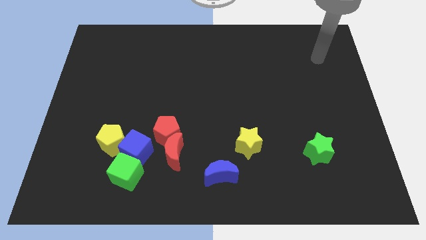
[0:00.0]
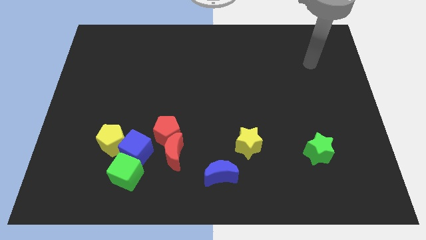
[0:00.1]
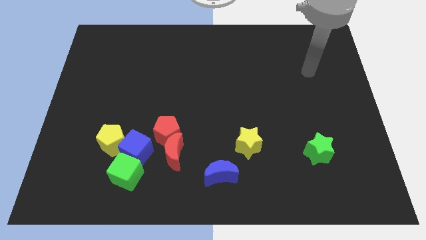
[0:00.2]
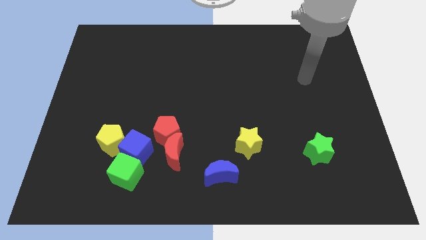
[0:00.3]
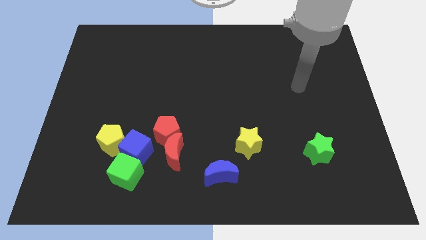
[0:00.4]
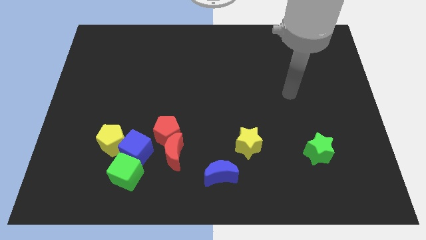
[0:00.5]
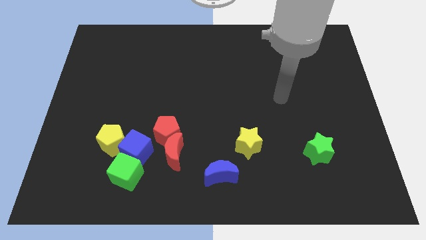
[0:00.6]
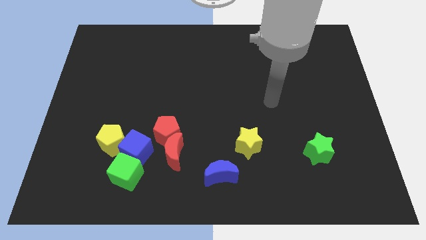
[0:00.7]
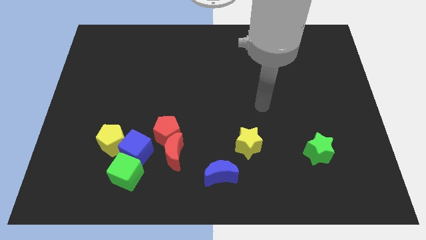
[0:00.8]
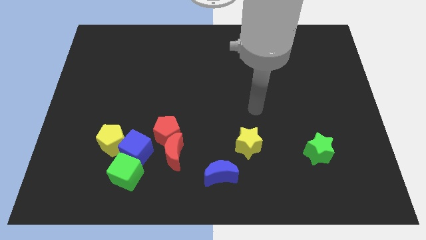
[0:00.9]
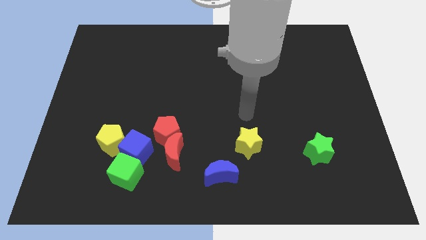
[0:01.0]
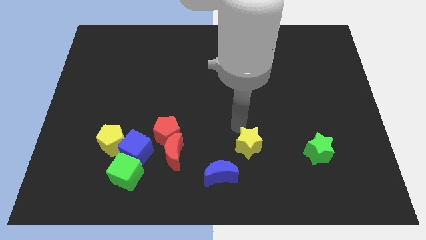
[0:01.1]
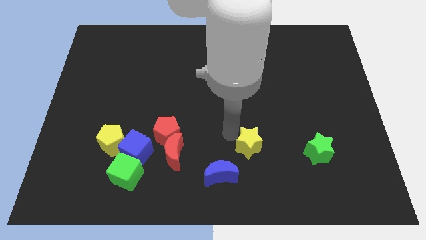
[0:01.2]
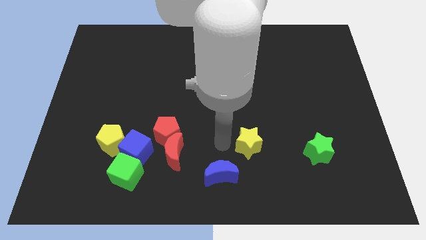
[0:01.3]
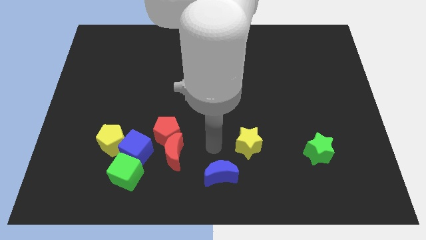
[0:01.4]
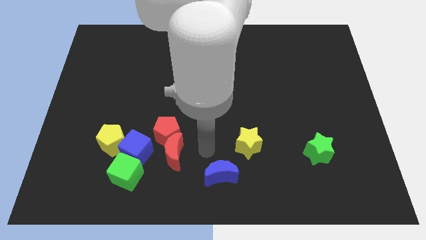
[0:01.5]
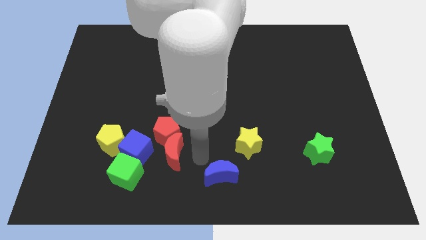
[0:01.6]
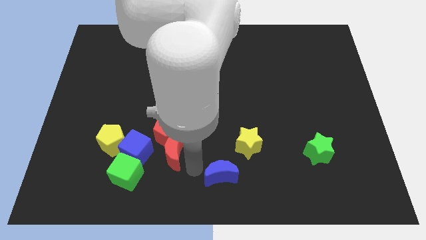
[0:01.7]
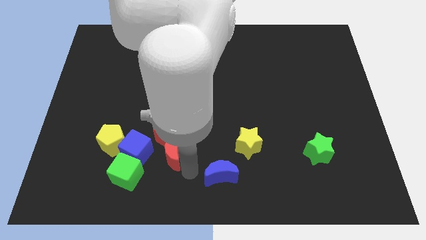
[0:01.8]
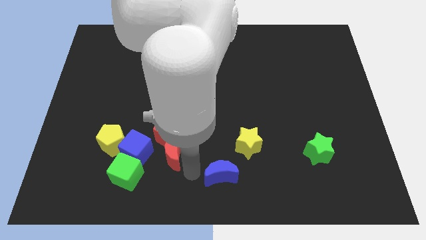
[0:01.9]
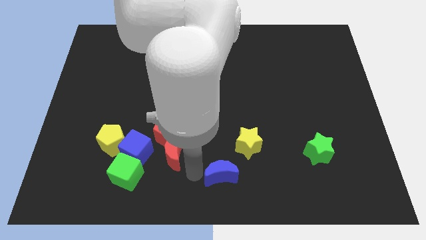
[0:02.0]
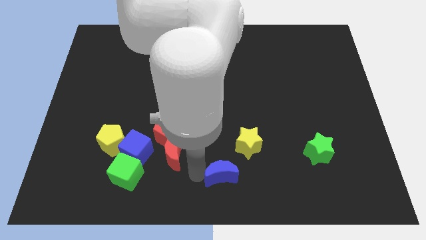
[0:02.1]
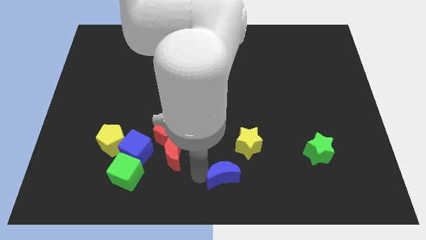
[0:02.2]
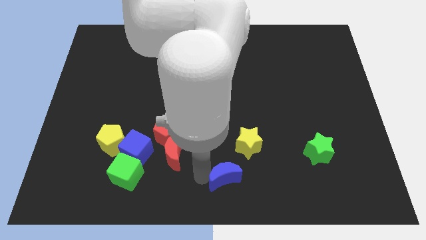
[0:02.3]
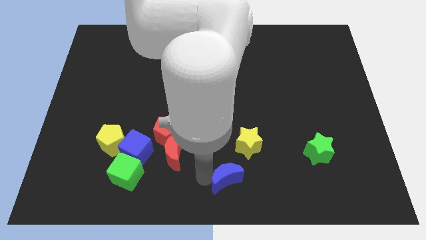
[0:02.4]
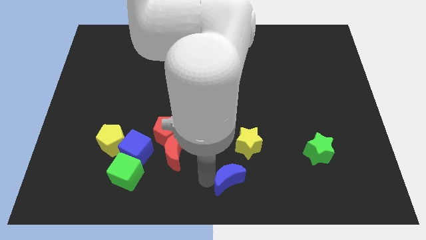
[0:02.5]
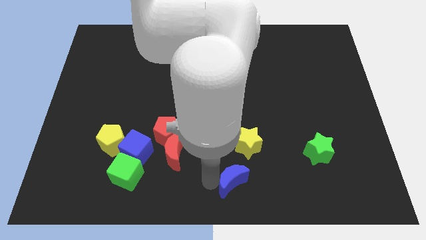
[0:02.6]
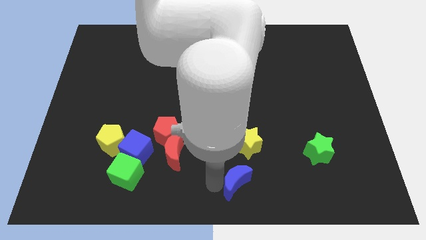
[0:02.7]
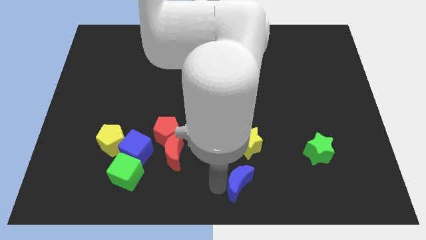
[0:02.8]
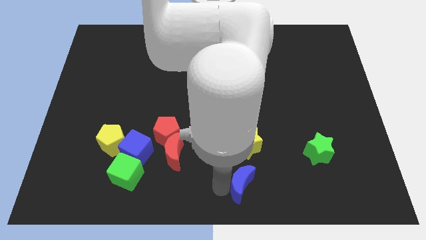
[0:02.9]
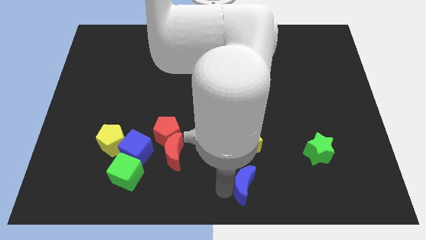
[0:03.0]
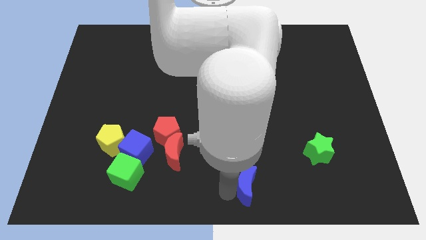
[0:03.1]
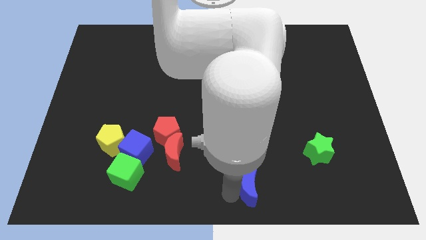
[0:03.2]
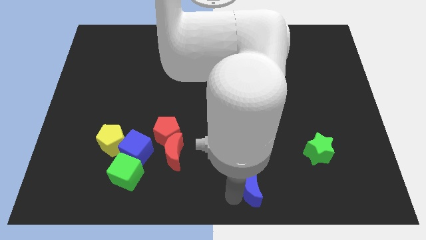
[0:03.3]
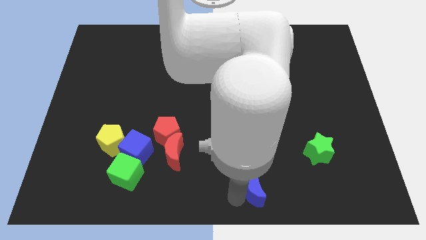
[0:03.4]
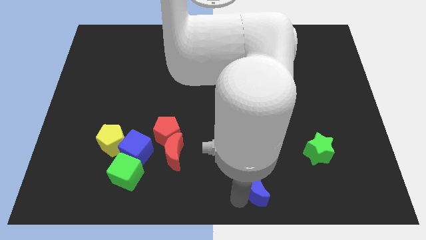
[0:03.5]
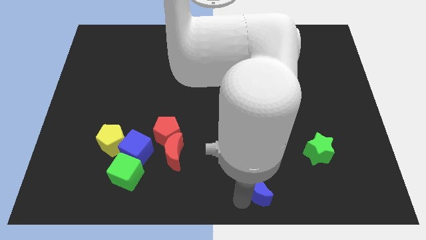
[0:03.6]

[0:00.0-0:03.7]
slide the blue moon somewhat right

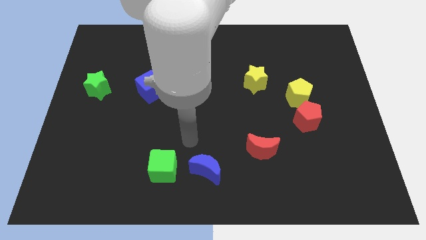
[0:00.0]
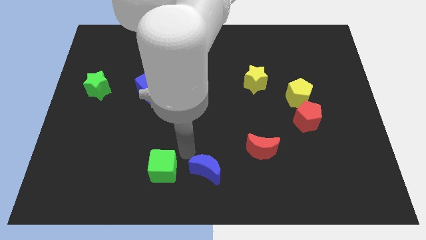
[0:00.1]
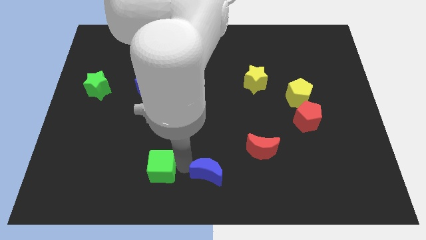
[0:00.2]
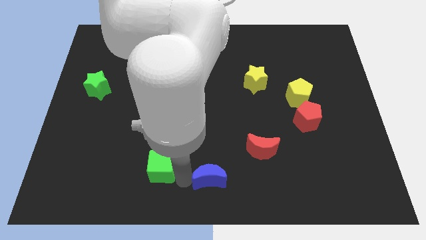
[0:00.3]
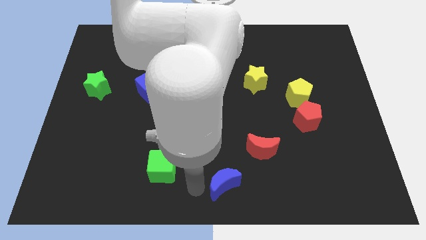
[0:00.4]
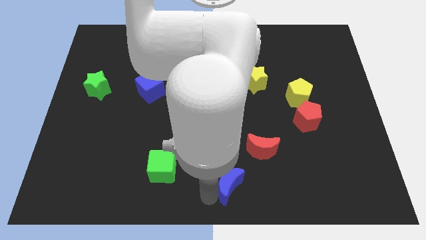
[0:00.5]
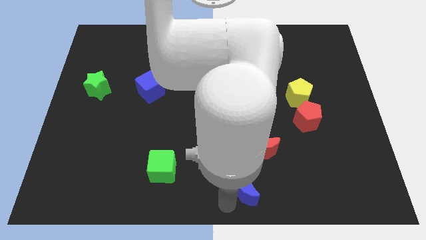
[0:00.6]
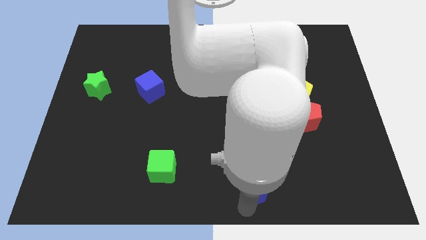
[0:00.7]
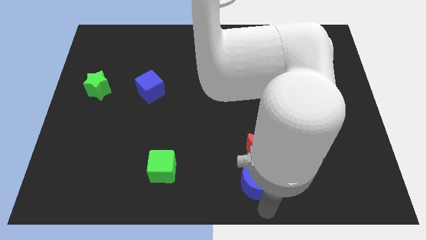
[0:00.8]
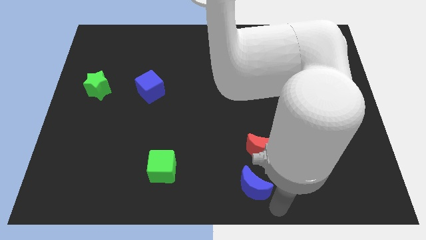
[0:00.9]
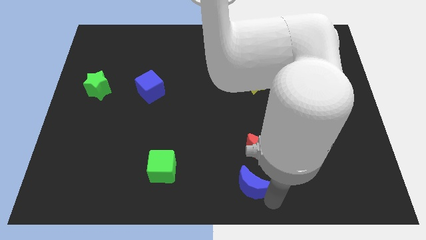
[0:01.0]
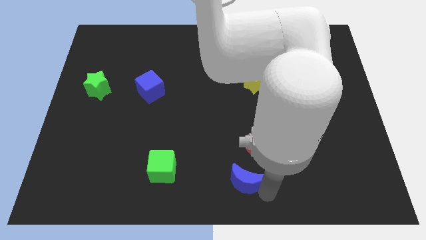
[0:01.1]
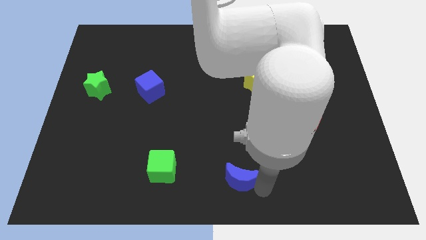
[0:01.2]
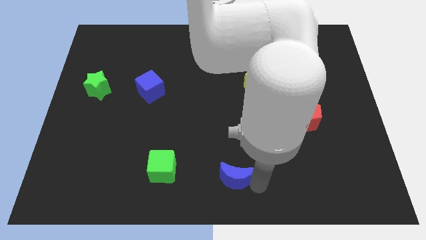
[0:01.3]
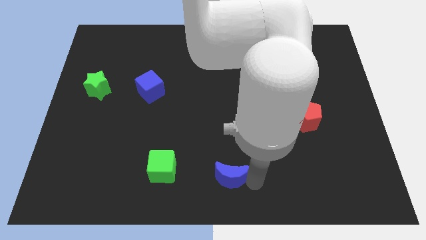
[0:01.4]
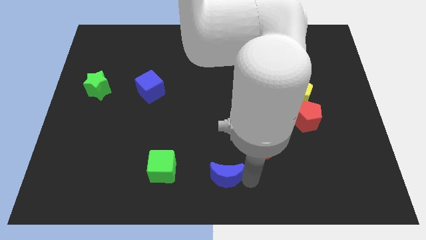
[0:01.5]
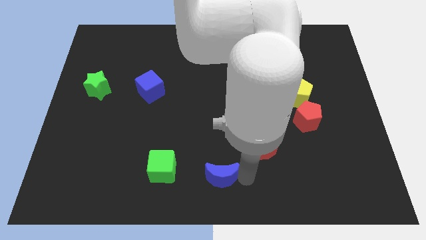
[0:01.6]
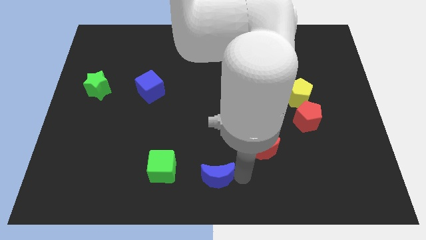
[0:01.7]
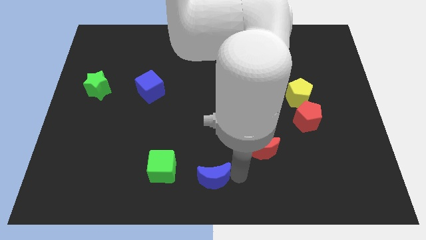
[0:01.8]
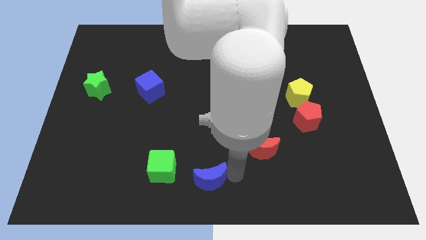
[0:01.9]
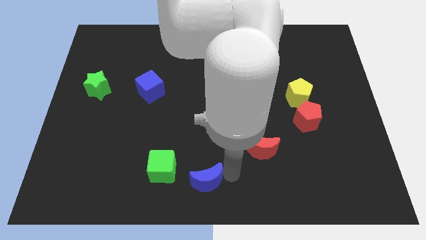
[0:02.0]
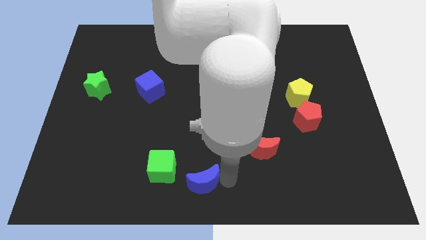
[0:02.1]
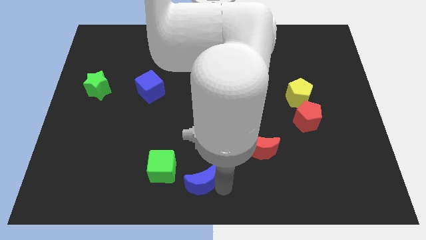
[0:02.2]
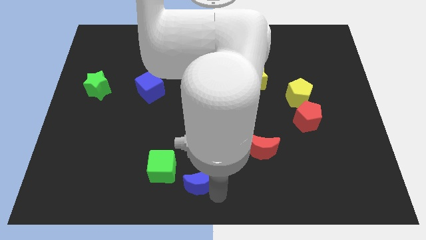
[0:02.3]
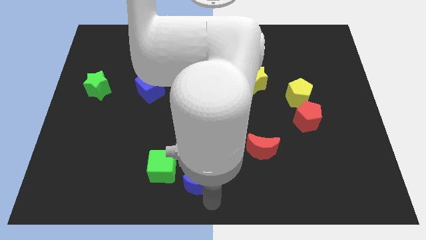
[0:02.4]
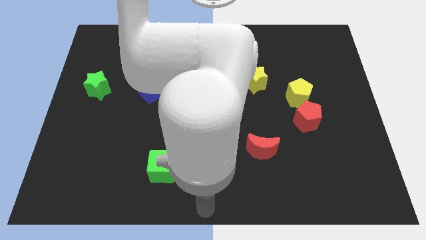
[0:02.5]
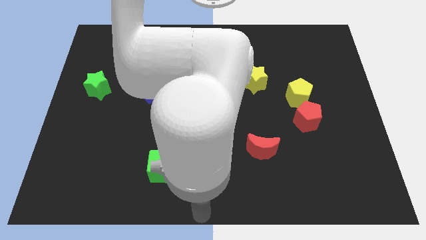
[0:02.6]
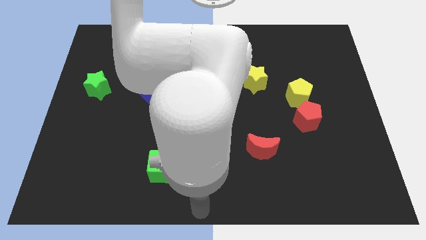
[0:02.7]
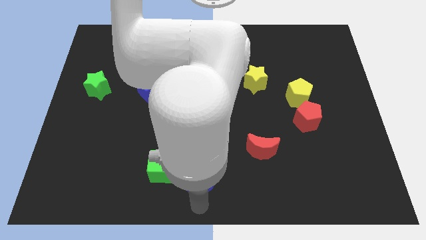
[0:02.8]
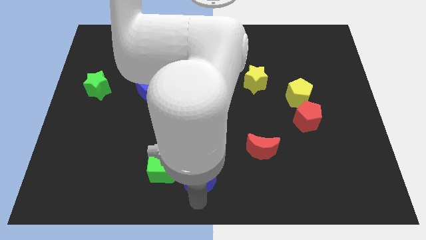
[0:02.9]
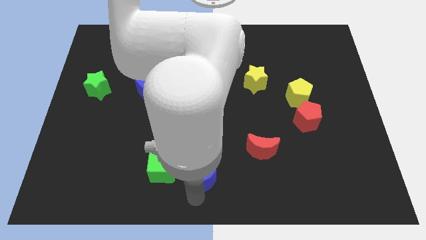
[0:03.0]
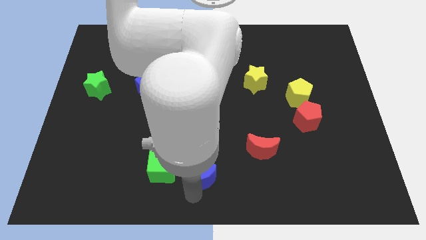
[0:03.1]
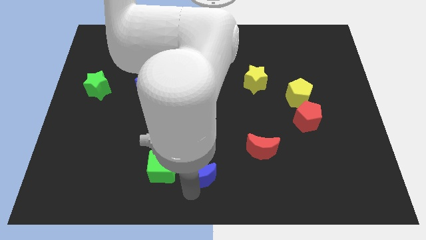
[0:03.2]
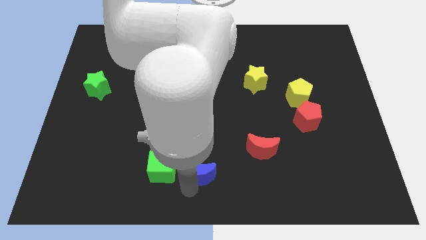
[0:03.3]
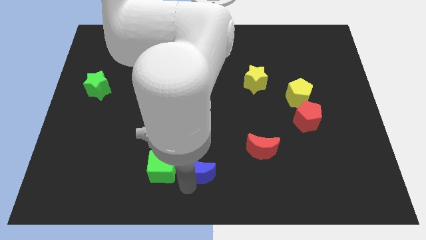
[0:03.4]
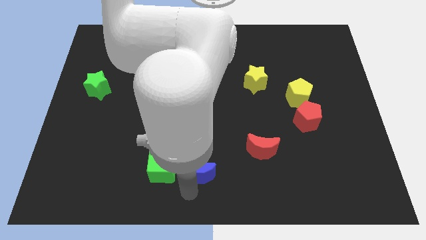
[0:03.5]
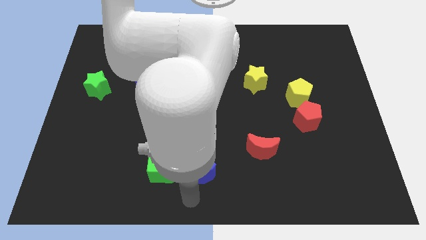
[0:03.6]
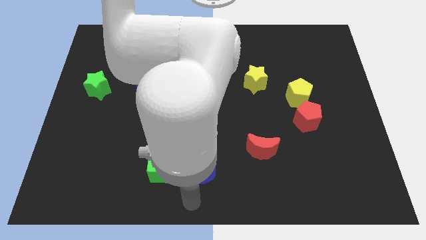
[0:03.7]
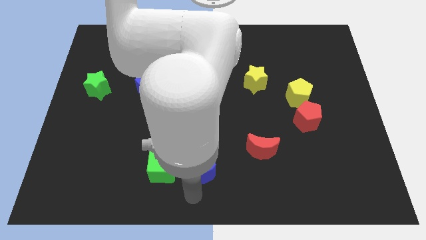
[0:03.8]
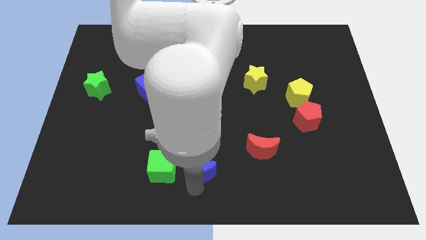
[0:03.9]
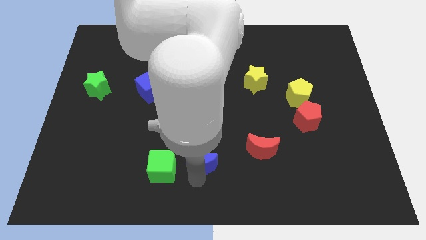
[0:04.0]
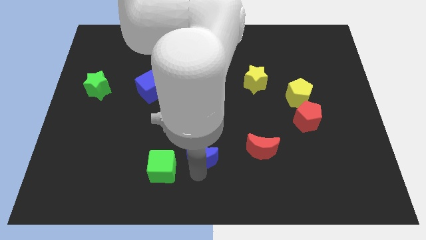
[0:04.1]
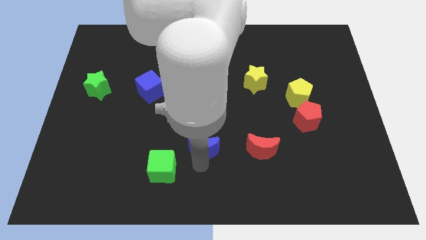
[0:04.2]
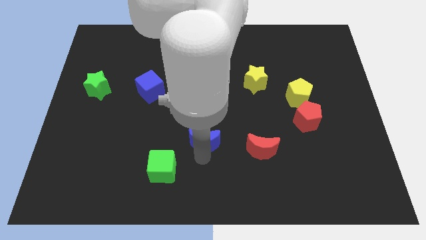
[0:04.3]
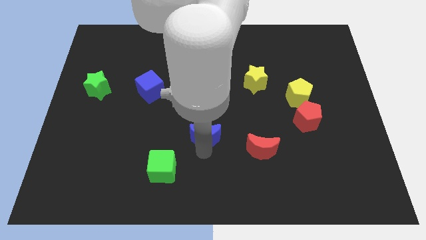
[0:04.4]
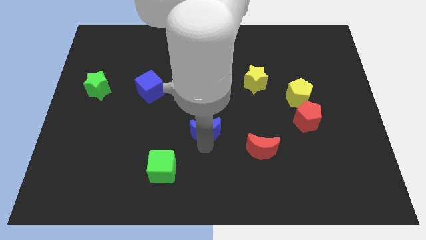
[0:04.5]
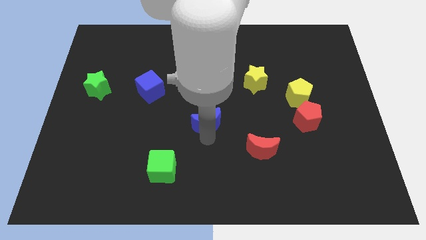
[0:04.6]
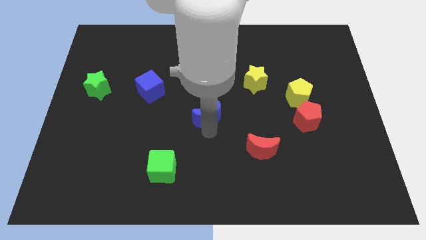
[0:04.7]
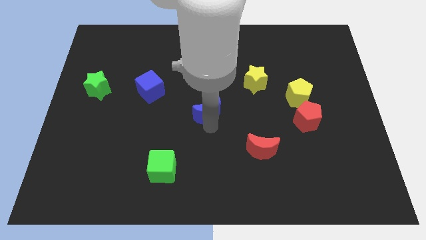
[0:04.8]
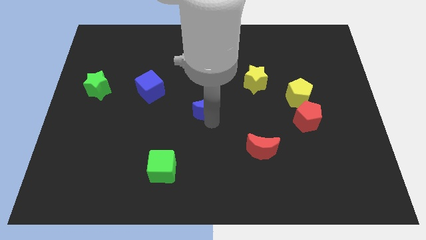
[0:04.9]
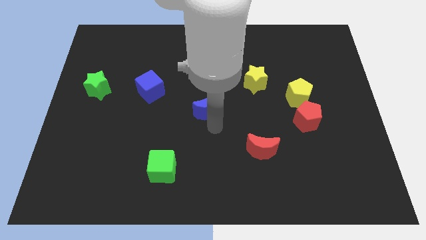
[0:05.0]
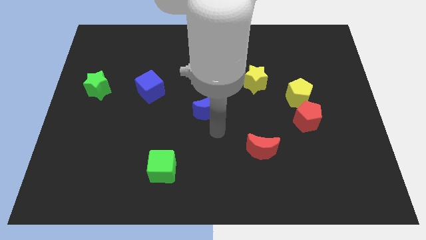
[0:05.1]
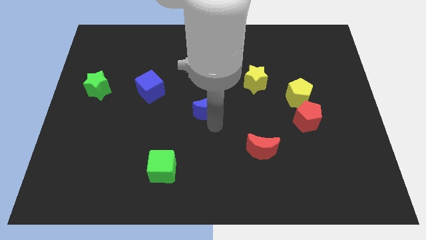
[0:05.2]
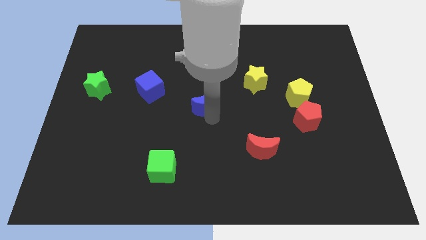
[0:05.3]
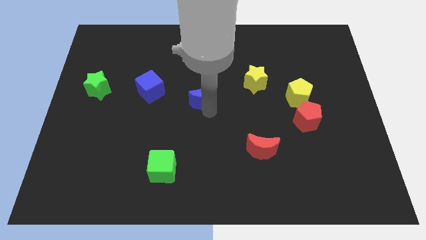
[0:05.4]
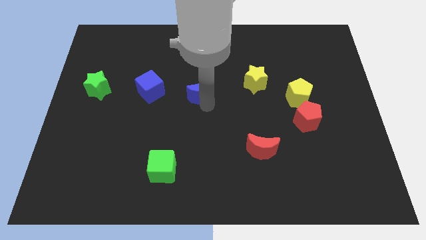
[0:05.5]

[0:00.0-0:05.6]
move the blue moon up
